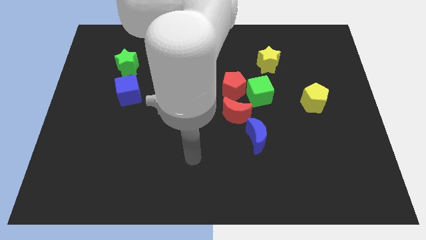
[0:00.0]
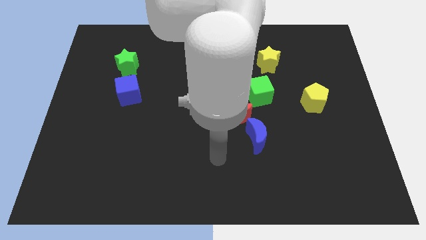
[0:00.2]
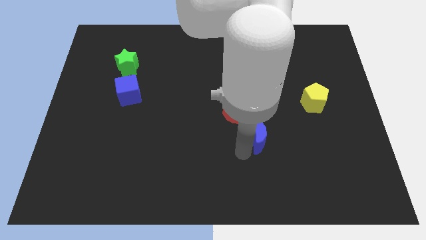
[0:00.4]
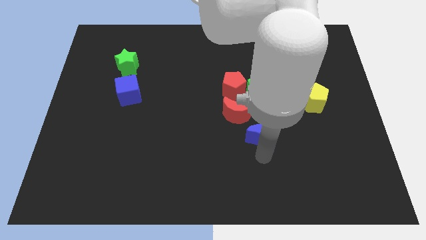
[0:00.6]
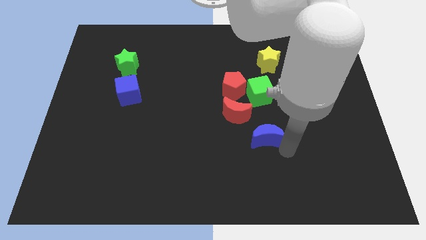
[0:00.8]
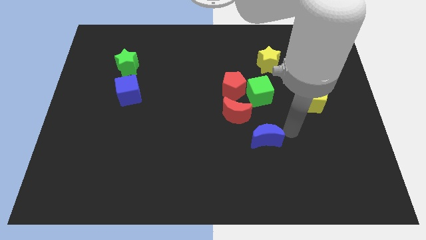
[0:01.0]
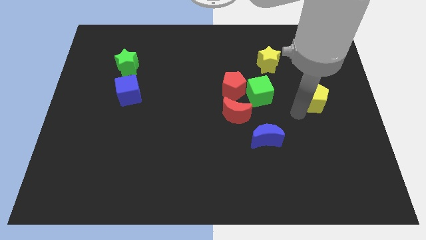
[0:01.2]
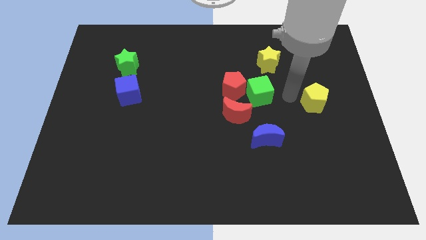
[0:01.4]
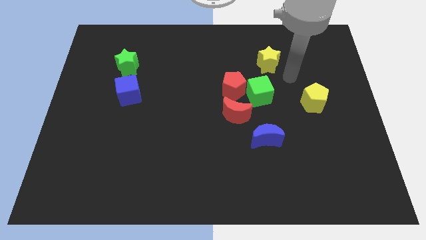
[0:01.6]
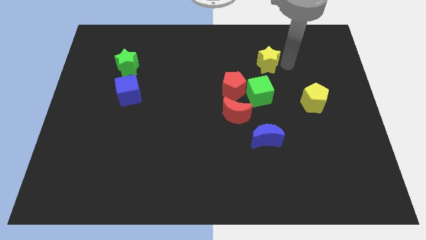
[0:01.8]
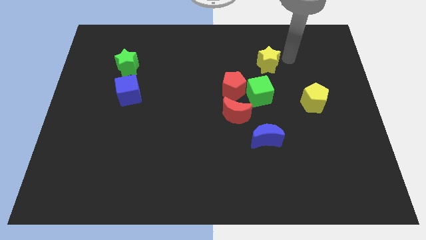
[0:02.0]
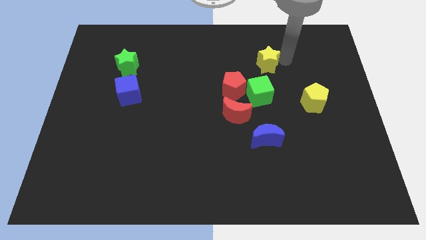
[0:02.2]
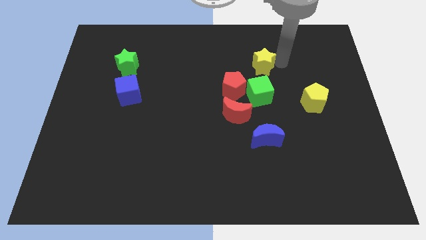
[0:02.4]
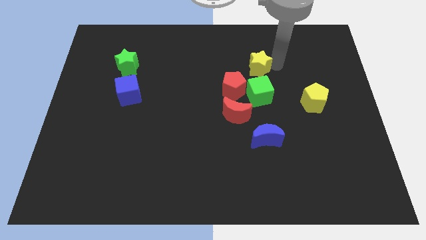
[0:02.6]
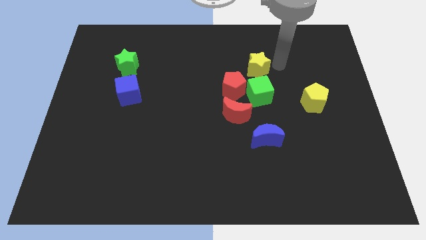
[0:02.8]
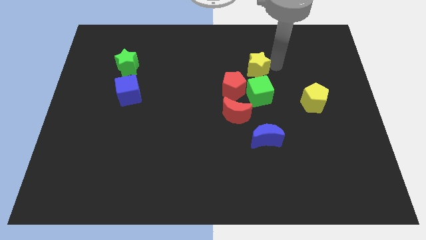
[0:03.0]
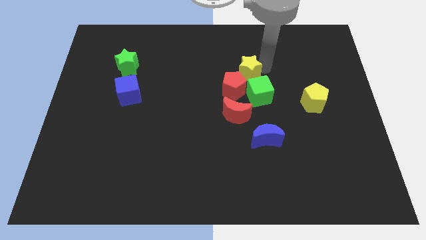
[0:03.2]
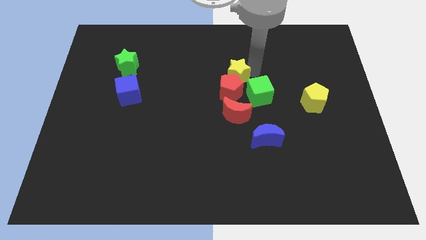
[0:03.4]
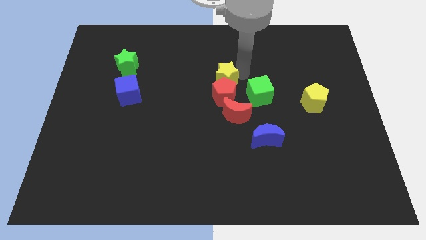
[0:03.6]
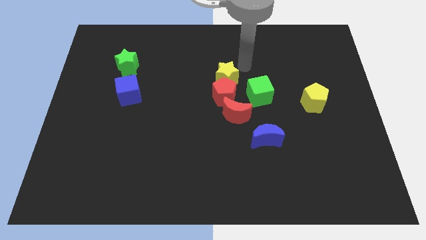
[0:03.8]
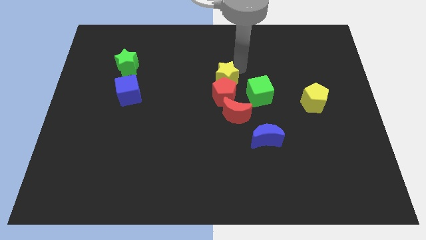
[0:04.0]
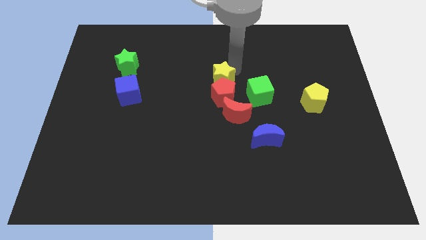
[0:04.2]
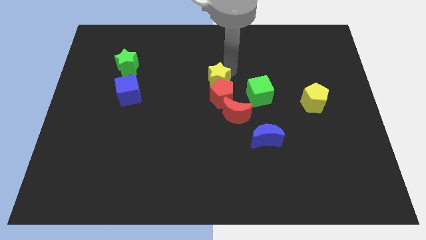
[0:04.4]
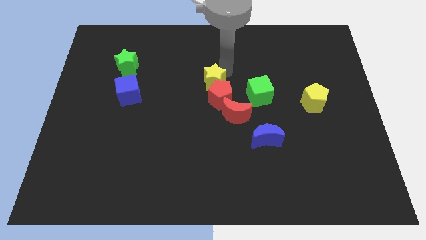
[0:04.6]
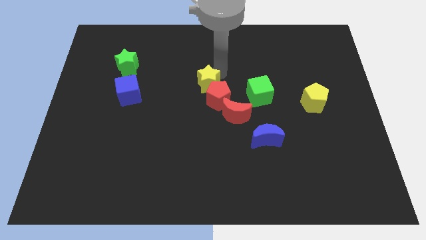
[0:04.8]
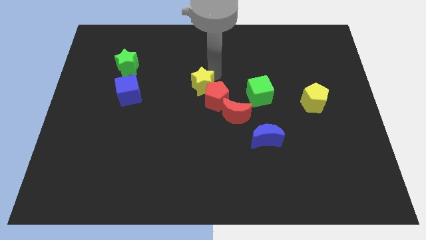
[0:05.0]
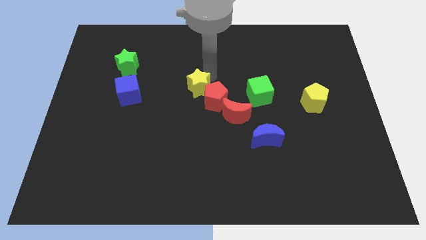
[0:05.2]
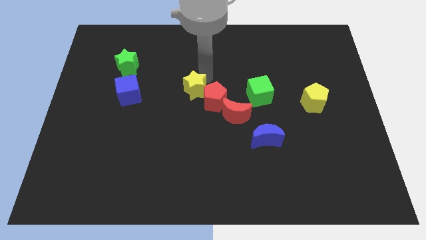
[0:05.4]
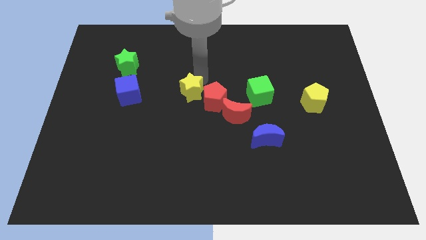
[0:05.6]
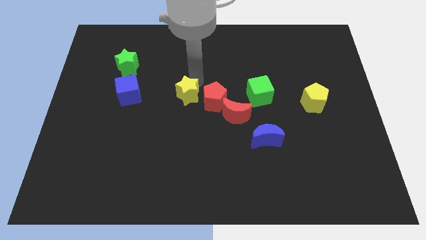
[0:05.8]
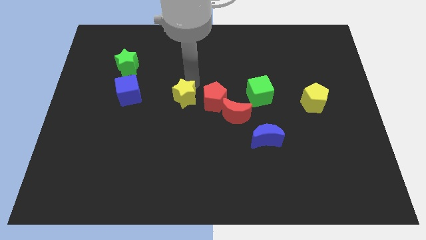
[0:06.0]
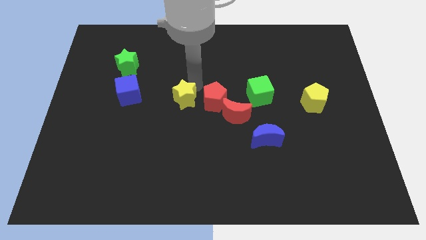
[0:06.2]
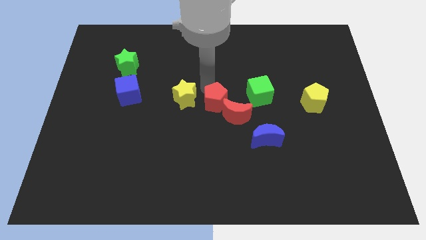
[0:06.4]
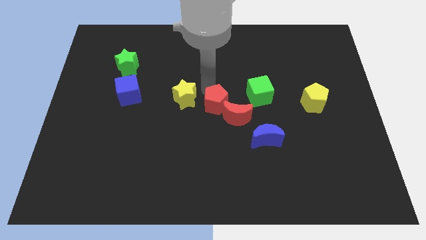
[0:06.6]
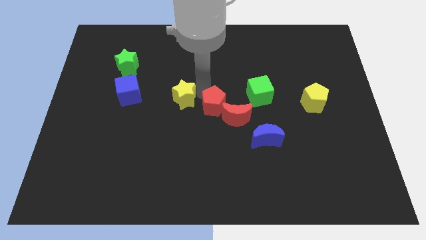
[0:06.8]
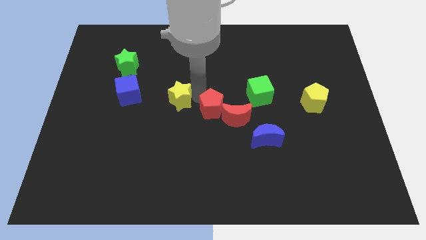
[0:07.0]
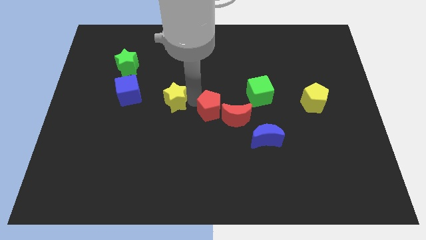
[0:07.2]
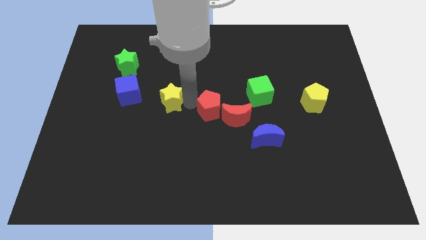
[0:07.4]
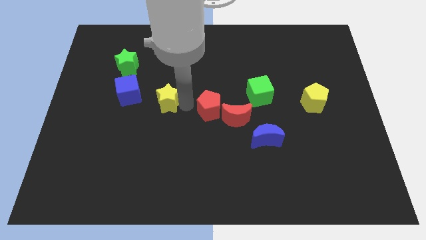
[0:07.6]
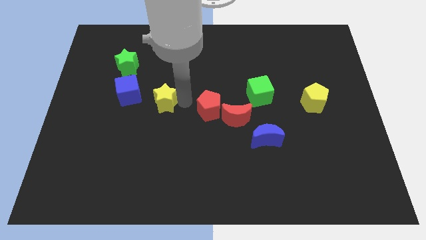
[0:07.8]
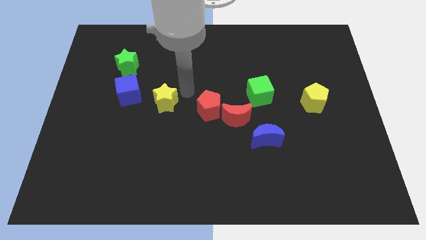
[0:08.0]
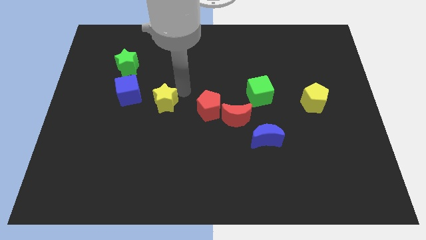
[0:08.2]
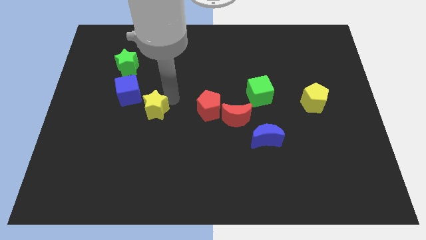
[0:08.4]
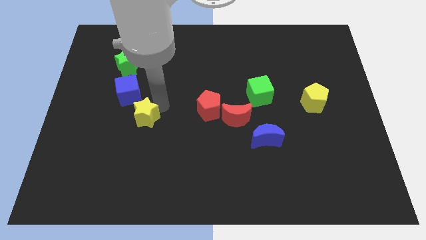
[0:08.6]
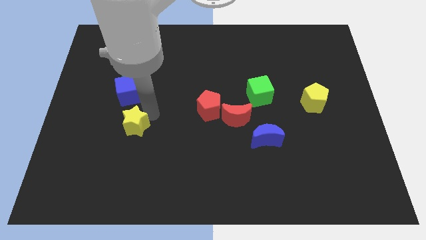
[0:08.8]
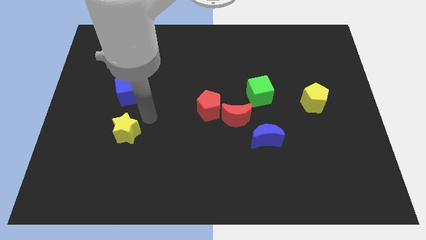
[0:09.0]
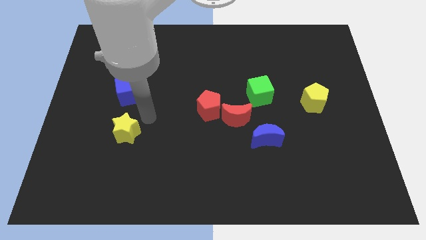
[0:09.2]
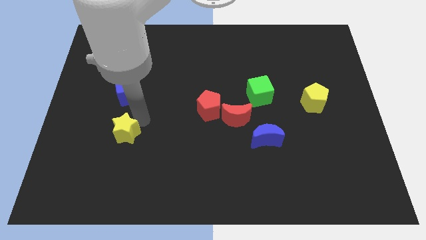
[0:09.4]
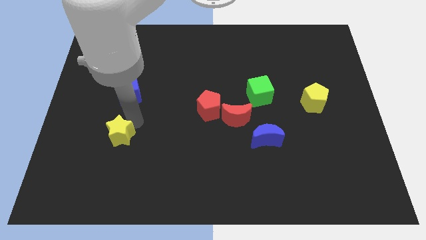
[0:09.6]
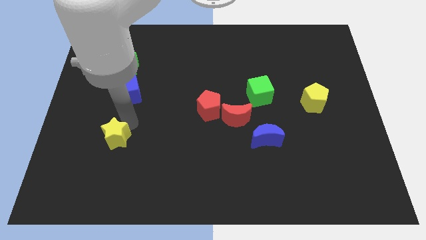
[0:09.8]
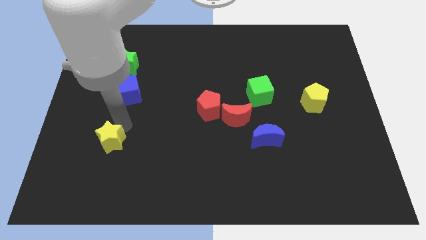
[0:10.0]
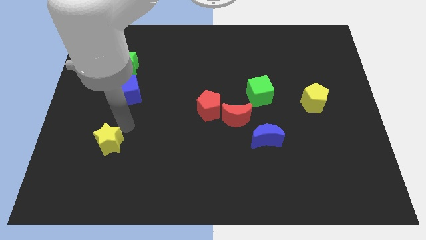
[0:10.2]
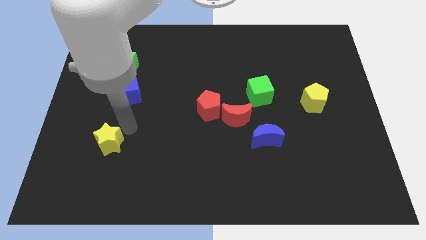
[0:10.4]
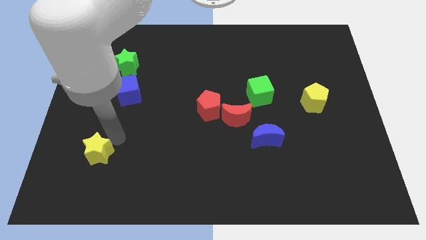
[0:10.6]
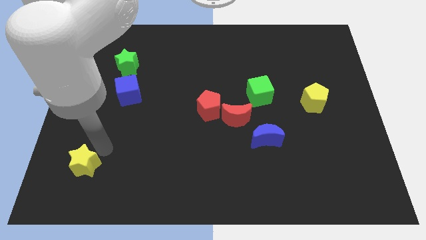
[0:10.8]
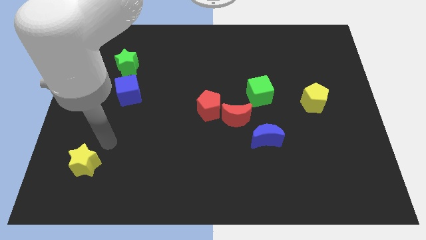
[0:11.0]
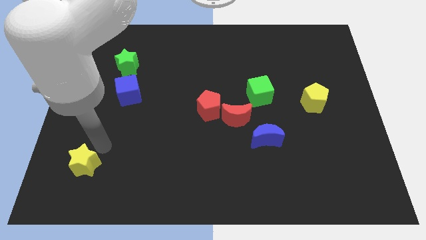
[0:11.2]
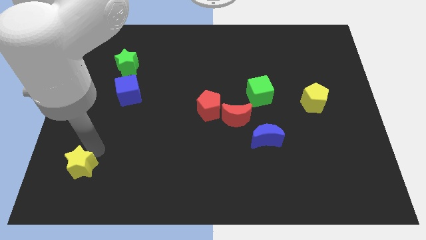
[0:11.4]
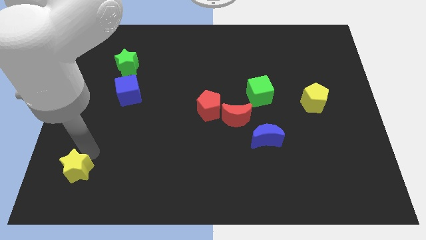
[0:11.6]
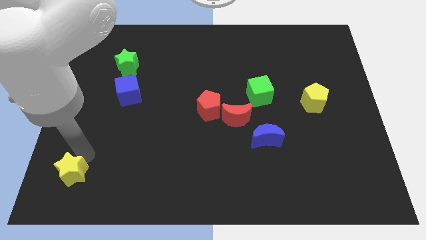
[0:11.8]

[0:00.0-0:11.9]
move the yellow star to the bottom left corner
